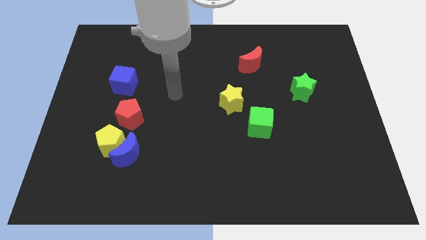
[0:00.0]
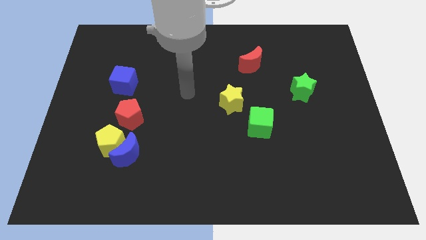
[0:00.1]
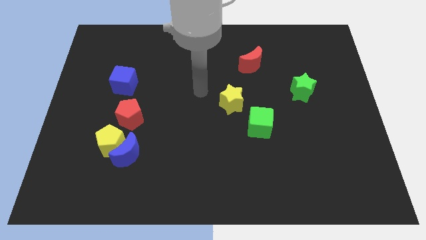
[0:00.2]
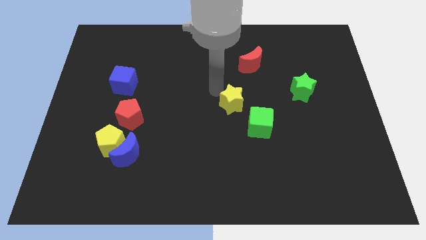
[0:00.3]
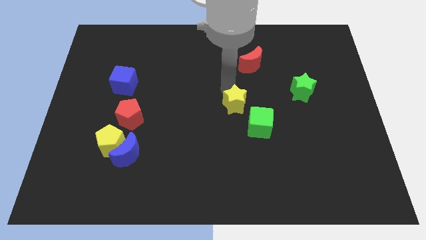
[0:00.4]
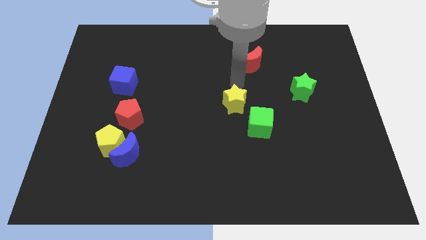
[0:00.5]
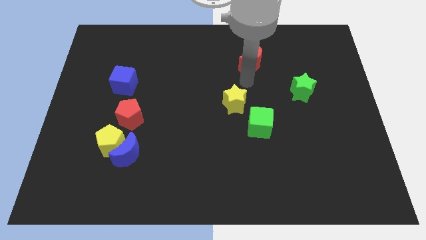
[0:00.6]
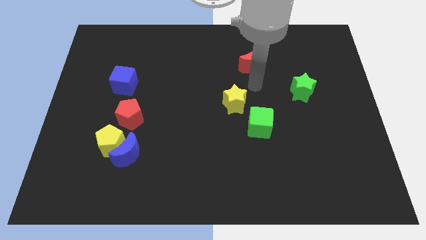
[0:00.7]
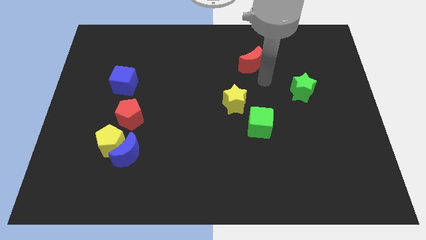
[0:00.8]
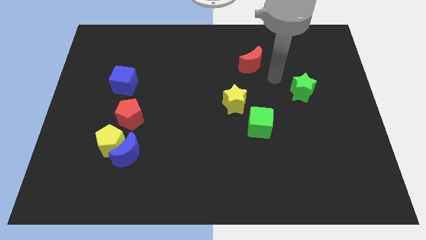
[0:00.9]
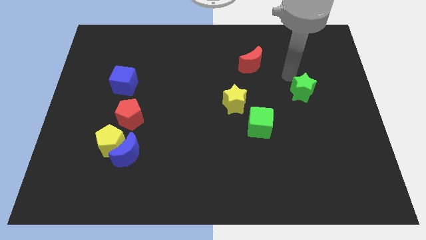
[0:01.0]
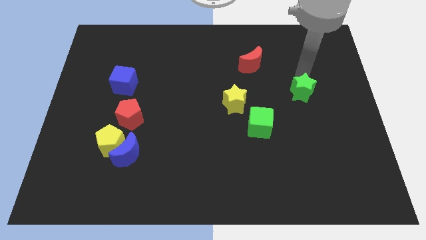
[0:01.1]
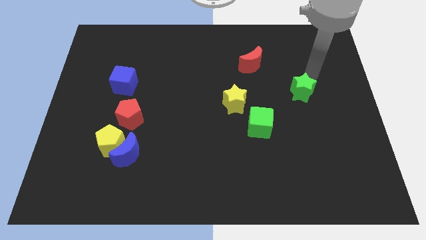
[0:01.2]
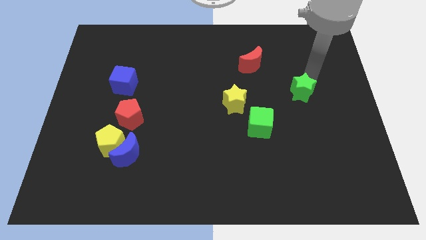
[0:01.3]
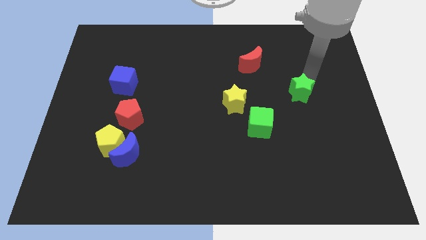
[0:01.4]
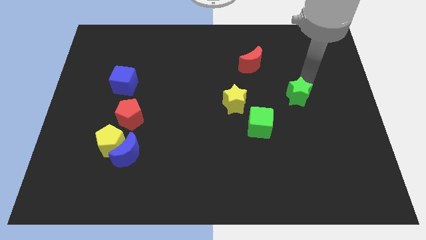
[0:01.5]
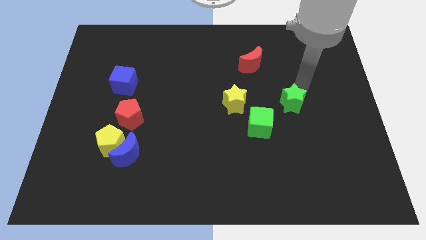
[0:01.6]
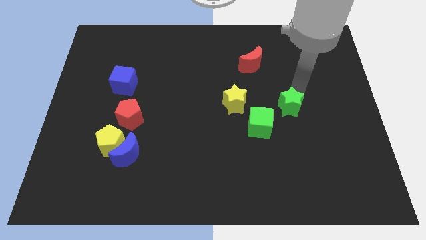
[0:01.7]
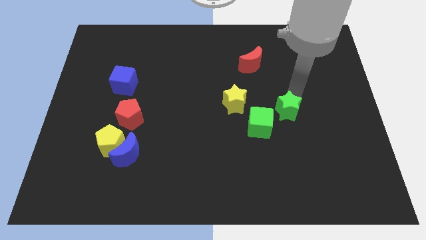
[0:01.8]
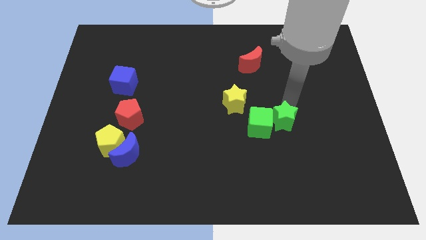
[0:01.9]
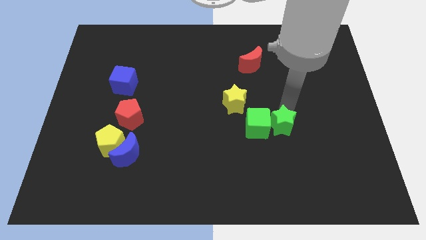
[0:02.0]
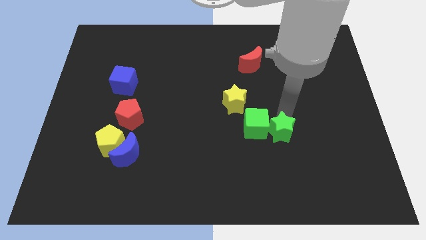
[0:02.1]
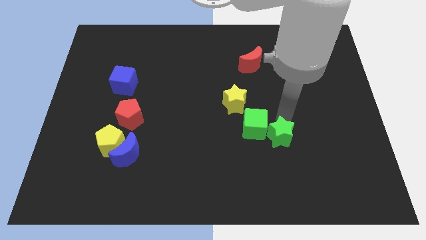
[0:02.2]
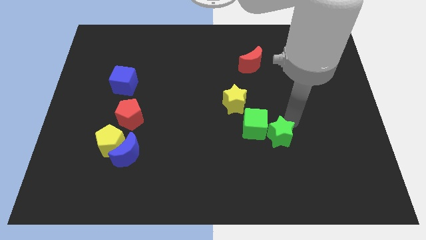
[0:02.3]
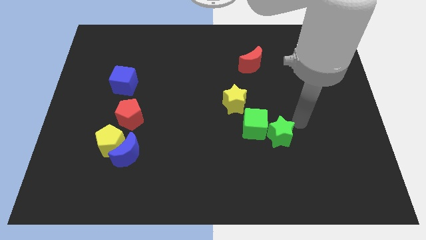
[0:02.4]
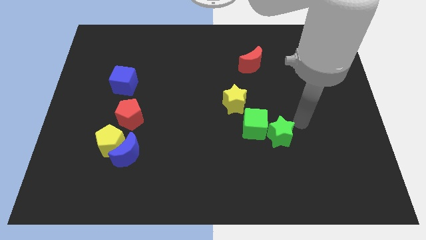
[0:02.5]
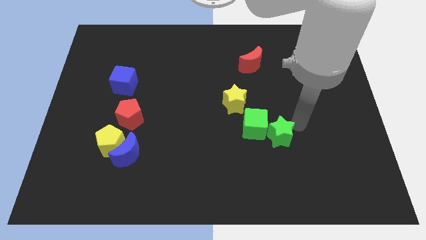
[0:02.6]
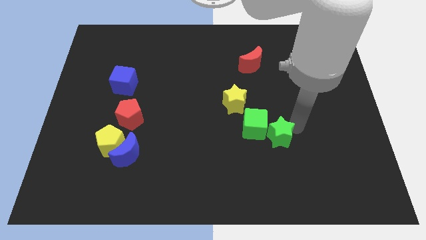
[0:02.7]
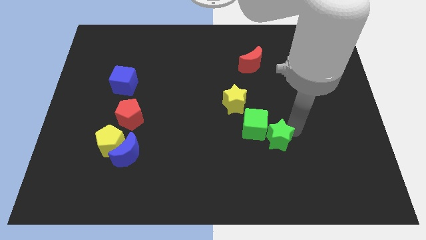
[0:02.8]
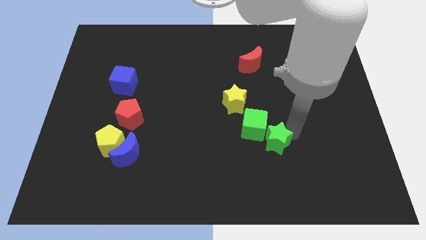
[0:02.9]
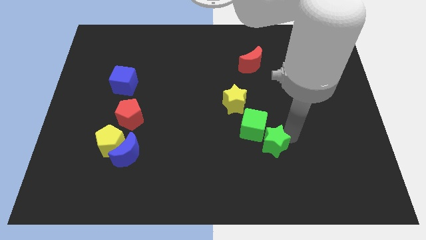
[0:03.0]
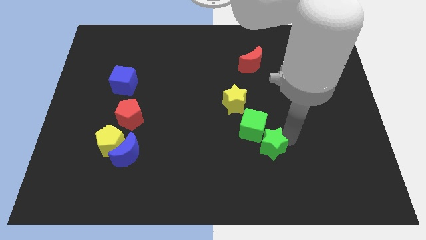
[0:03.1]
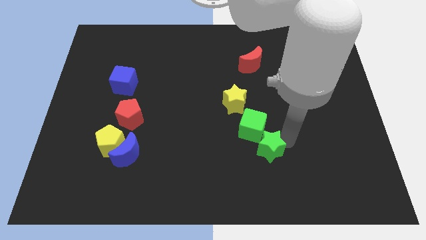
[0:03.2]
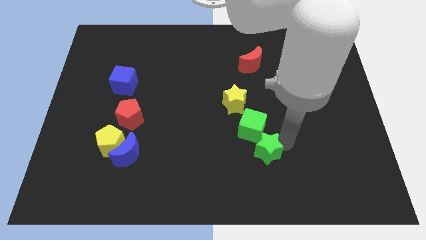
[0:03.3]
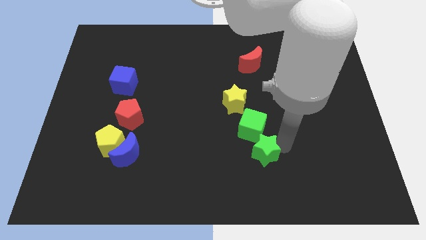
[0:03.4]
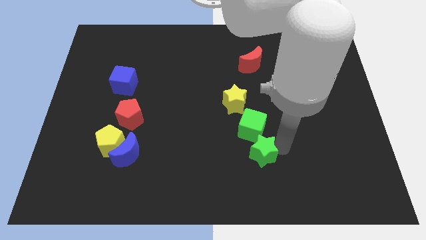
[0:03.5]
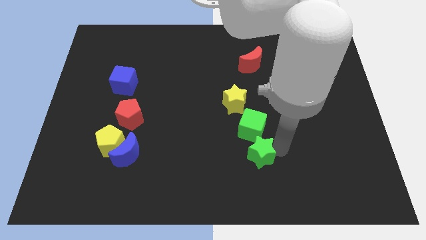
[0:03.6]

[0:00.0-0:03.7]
push the green star down and then left

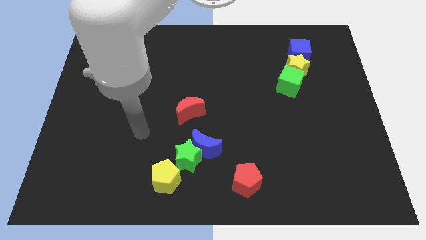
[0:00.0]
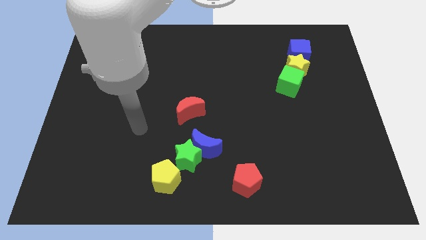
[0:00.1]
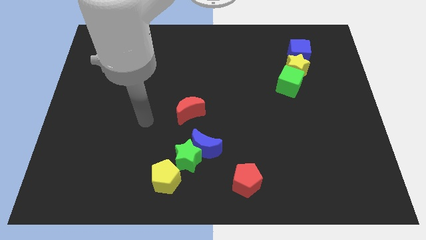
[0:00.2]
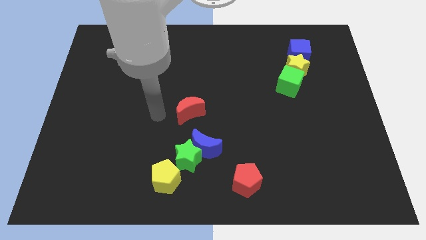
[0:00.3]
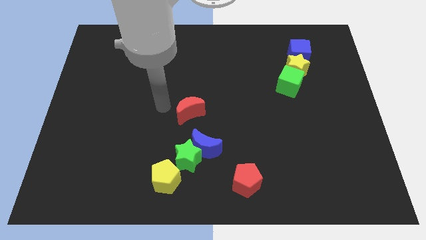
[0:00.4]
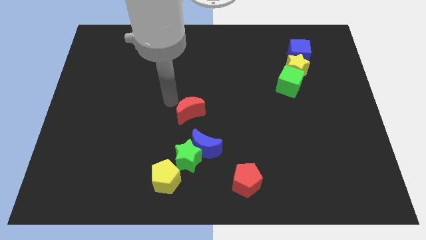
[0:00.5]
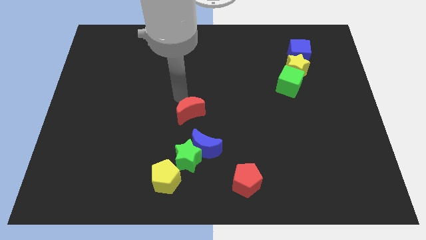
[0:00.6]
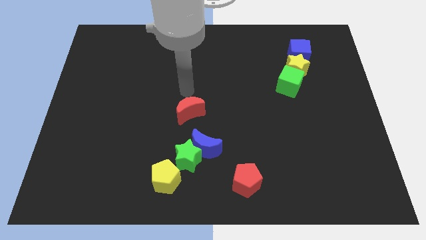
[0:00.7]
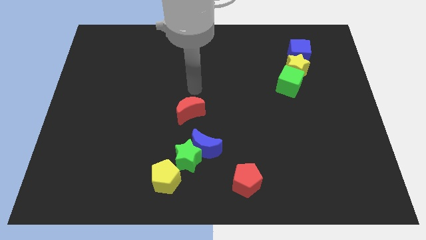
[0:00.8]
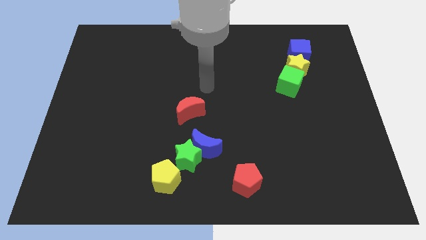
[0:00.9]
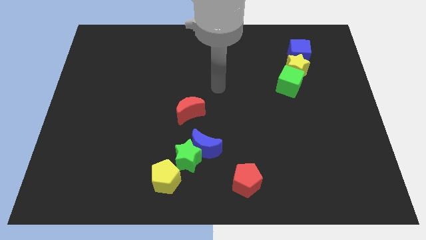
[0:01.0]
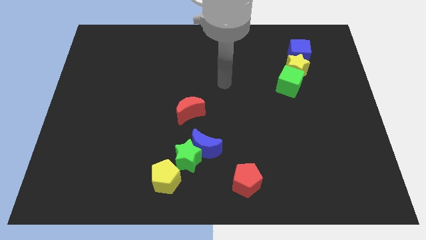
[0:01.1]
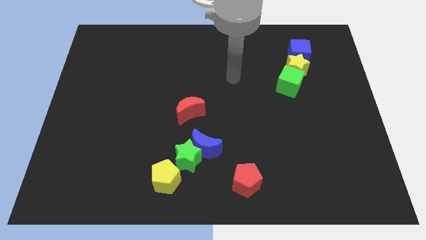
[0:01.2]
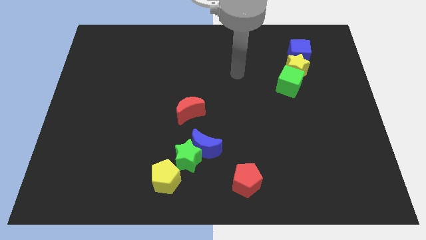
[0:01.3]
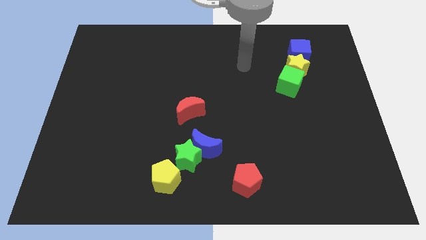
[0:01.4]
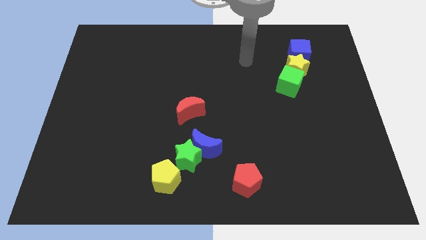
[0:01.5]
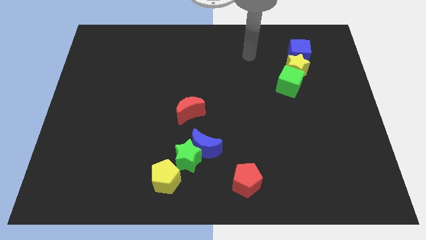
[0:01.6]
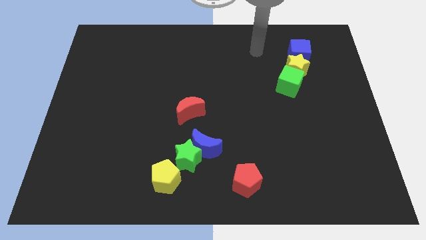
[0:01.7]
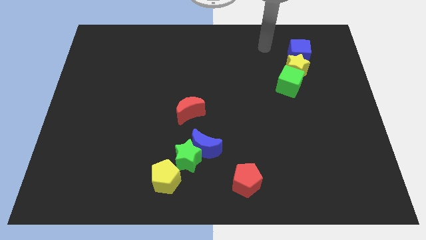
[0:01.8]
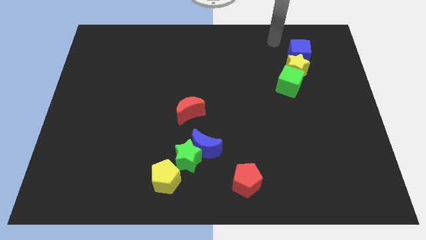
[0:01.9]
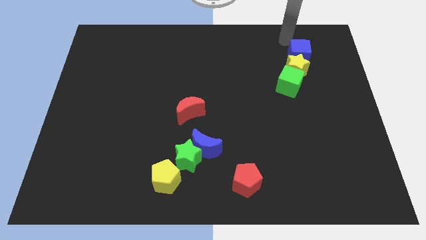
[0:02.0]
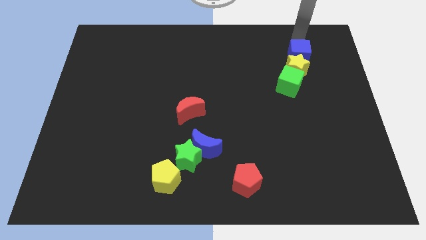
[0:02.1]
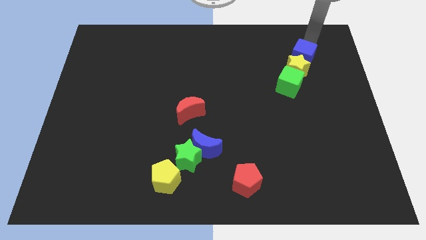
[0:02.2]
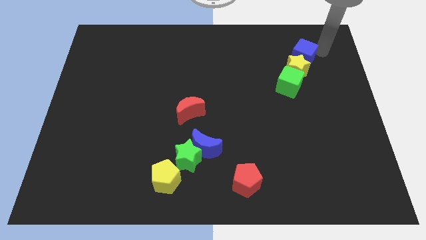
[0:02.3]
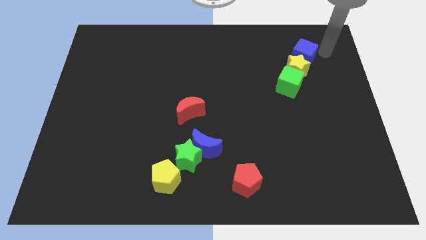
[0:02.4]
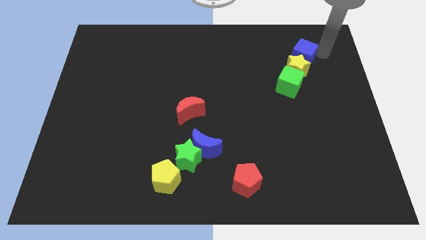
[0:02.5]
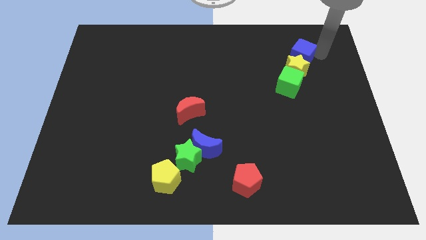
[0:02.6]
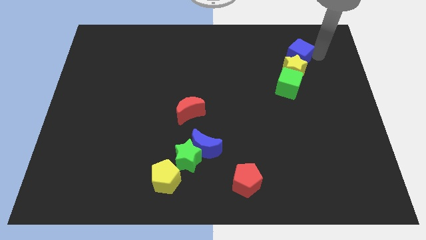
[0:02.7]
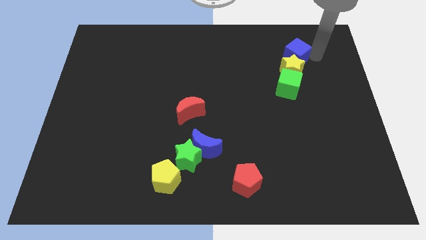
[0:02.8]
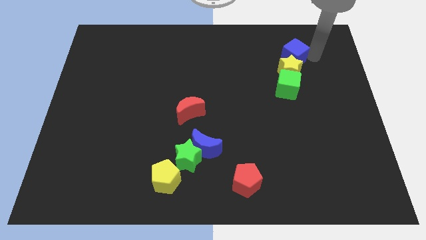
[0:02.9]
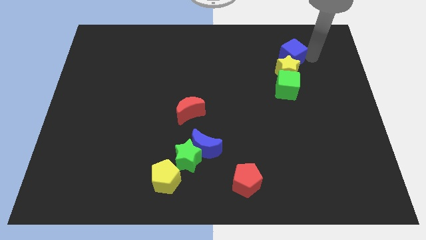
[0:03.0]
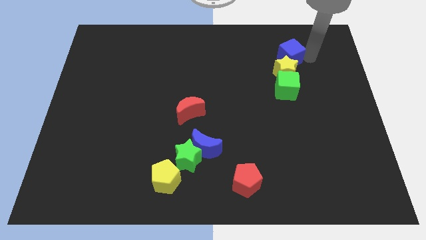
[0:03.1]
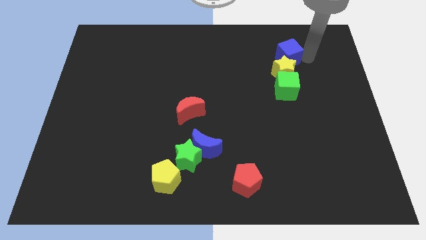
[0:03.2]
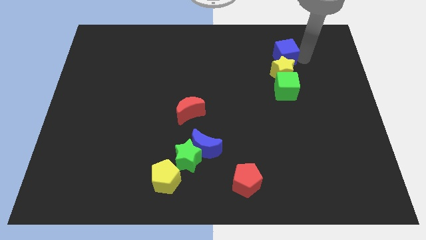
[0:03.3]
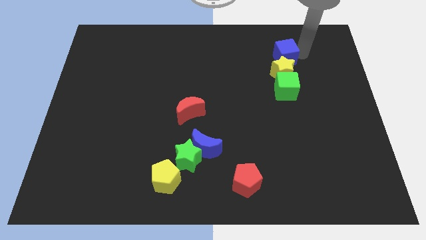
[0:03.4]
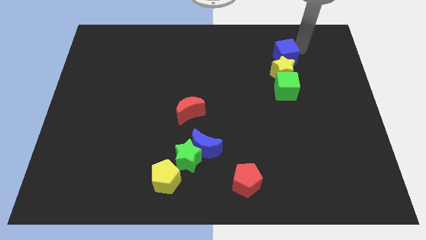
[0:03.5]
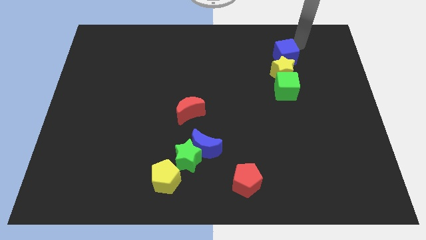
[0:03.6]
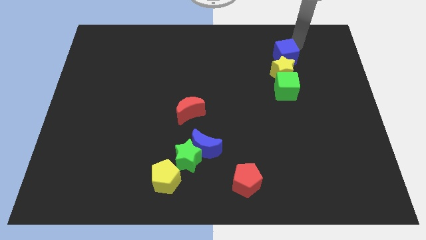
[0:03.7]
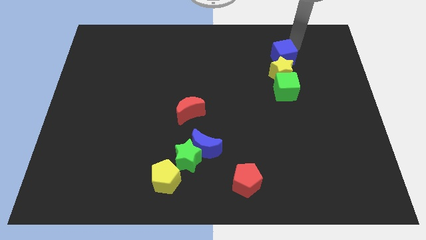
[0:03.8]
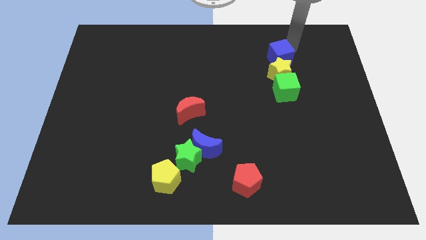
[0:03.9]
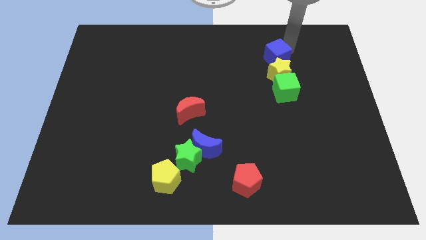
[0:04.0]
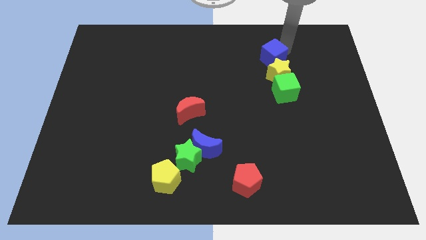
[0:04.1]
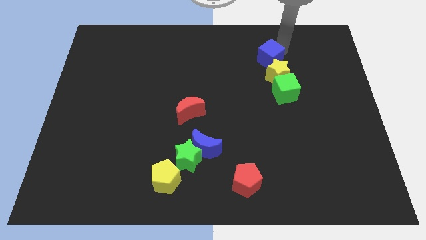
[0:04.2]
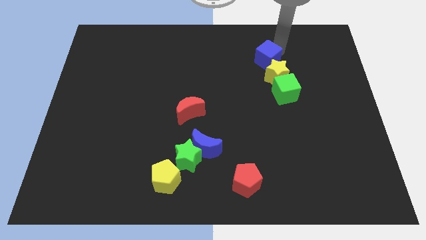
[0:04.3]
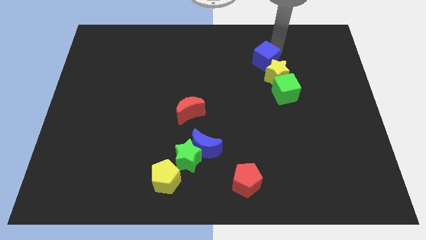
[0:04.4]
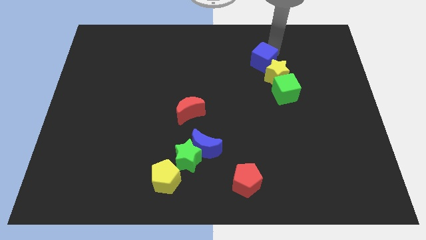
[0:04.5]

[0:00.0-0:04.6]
slightly move the blue cube down and then to the left

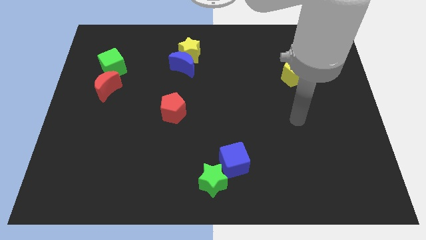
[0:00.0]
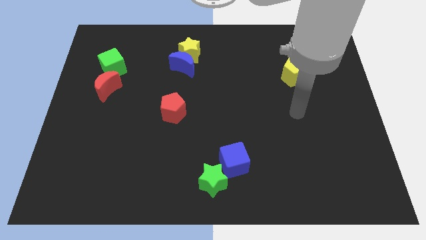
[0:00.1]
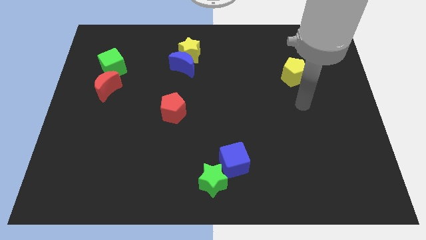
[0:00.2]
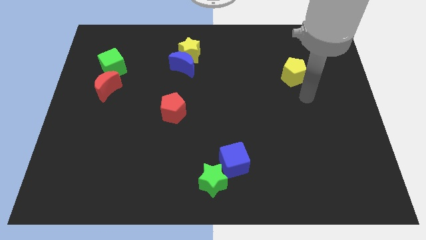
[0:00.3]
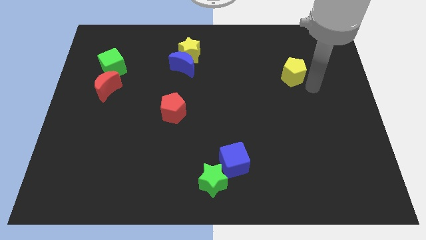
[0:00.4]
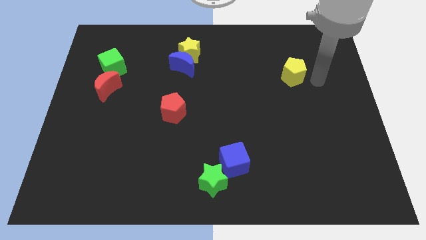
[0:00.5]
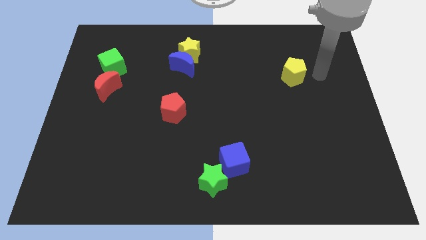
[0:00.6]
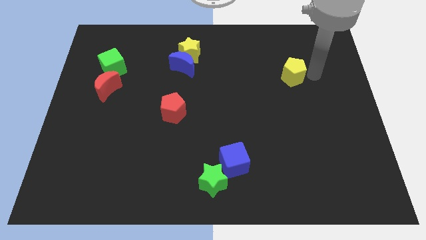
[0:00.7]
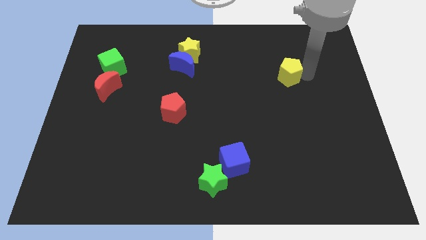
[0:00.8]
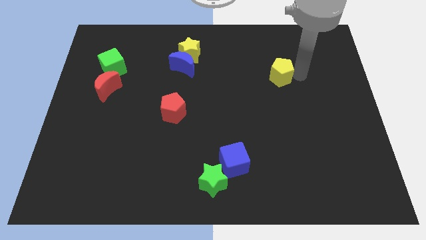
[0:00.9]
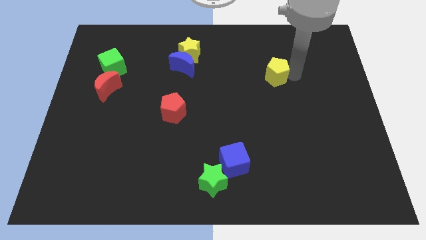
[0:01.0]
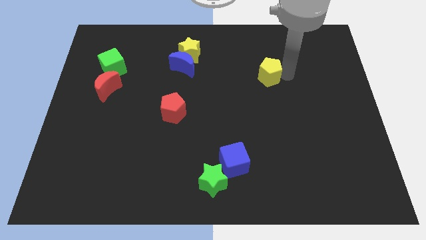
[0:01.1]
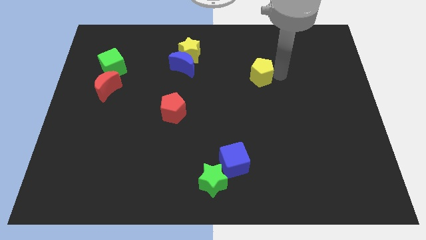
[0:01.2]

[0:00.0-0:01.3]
slightly push the yellow pentagon to the left
